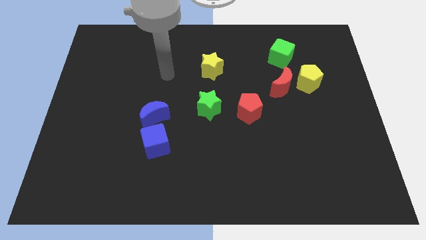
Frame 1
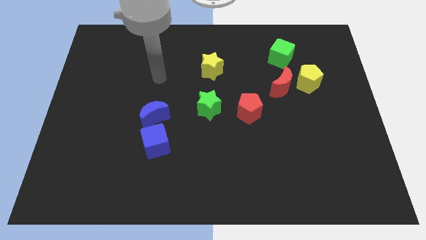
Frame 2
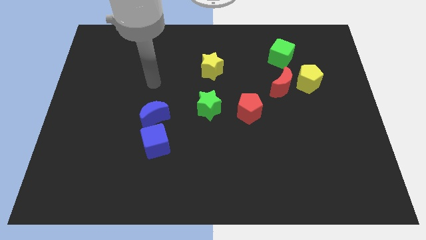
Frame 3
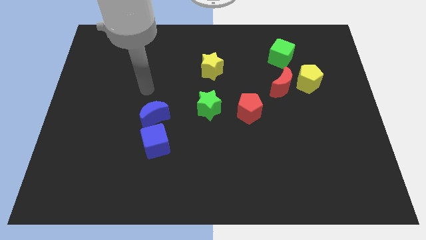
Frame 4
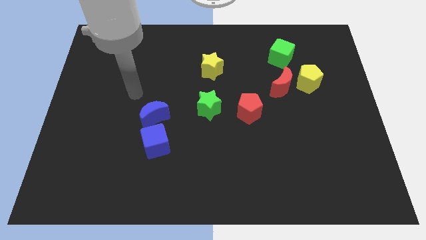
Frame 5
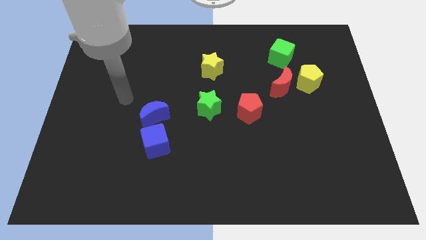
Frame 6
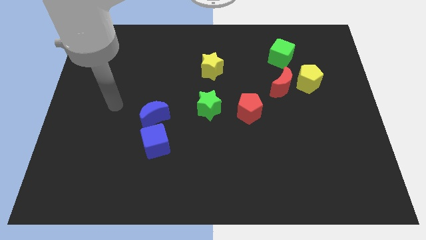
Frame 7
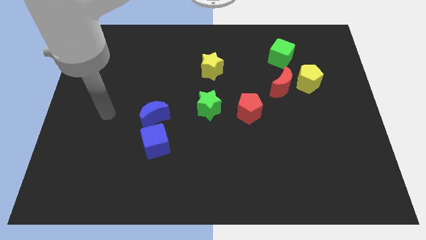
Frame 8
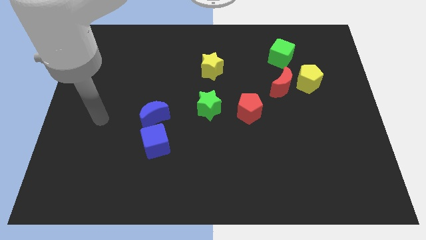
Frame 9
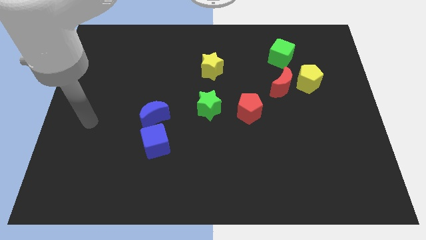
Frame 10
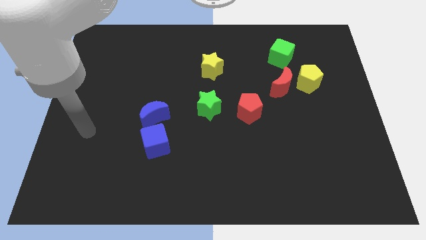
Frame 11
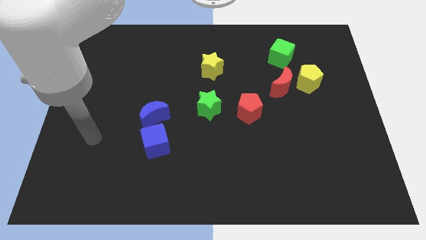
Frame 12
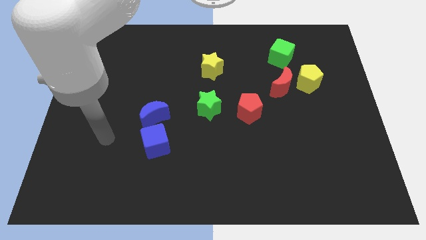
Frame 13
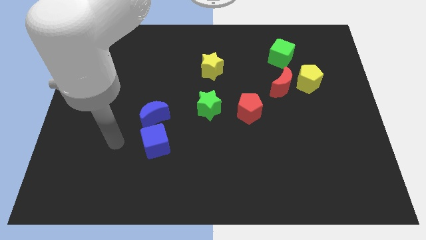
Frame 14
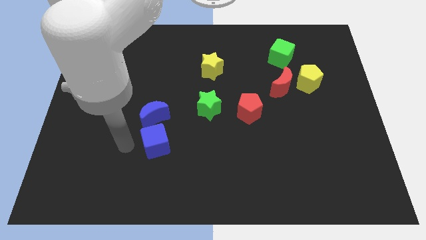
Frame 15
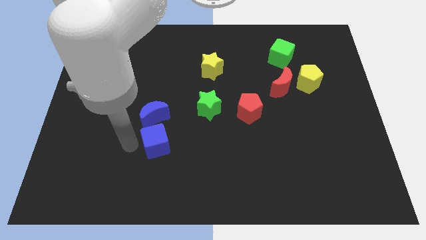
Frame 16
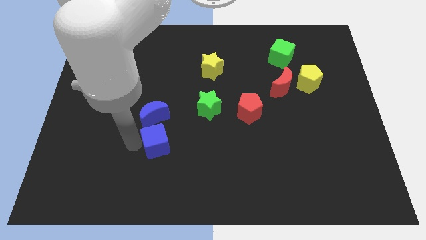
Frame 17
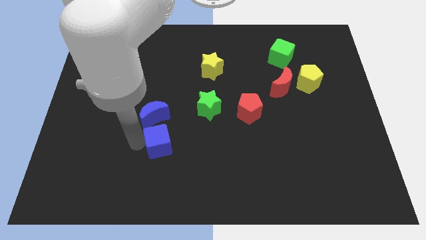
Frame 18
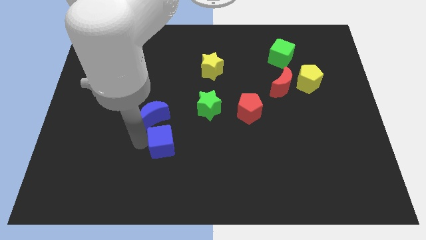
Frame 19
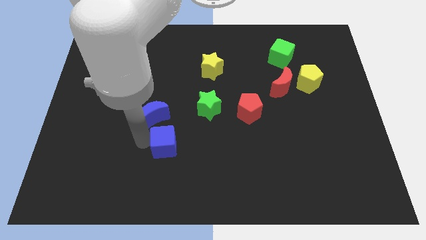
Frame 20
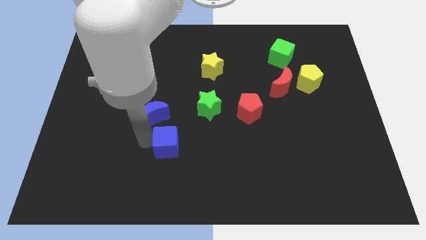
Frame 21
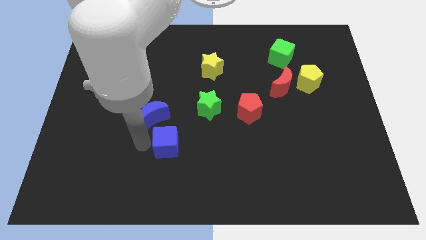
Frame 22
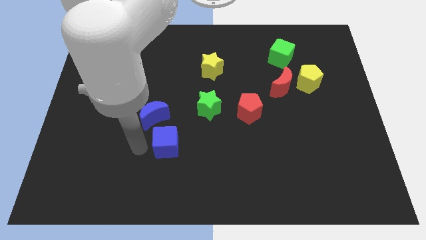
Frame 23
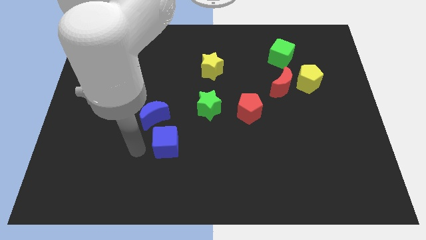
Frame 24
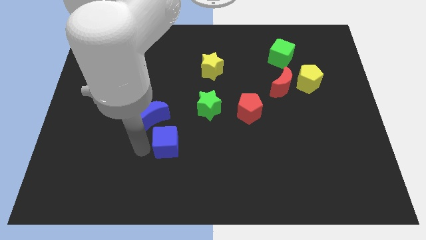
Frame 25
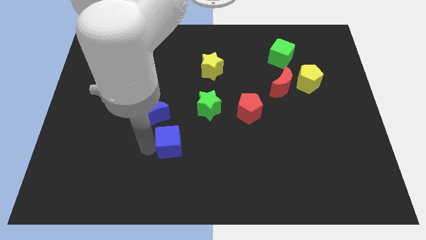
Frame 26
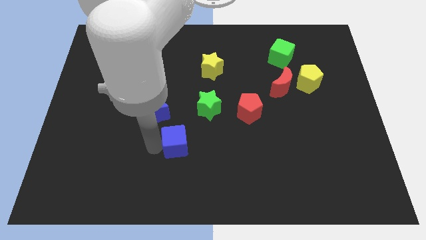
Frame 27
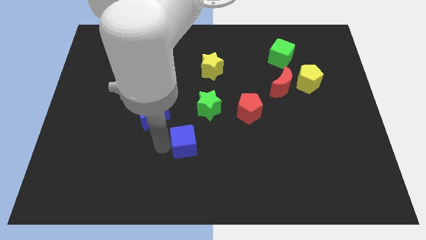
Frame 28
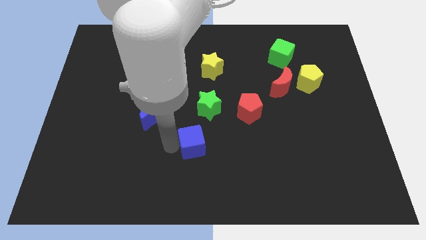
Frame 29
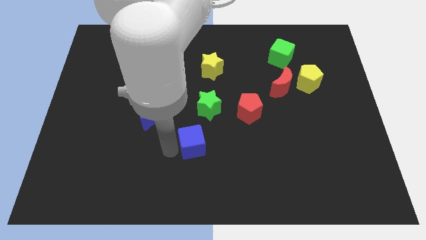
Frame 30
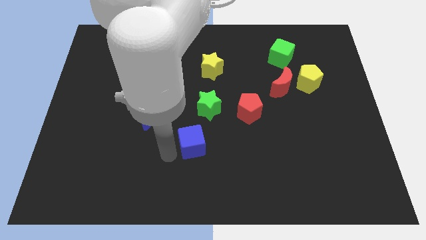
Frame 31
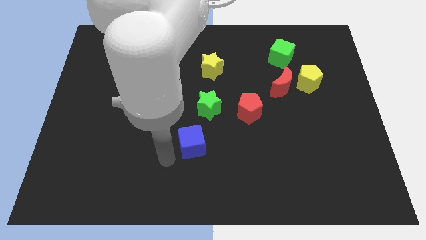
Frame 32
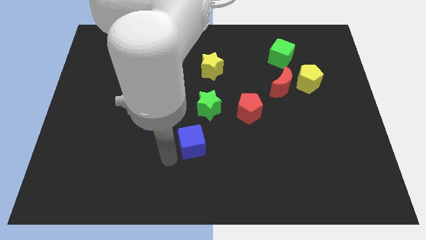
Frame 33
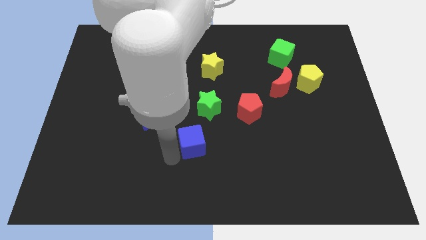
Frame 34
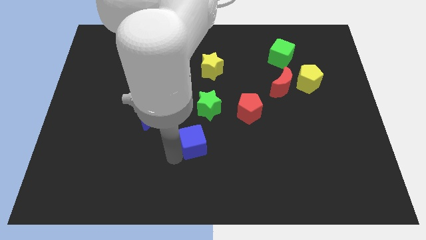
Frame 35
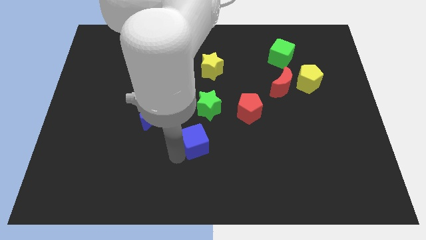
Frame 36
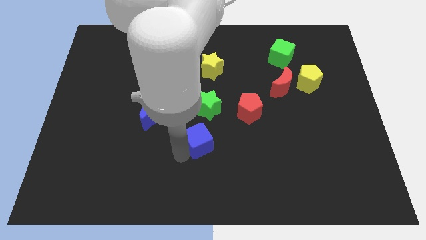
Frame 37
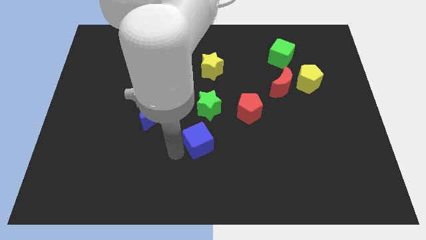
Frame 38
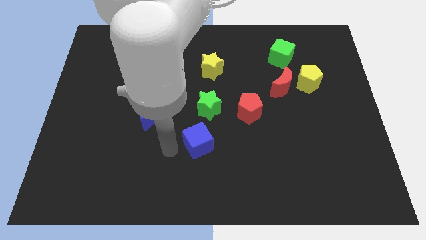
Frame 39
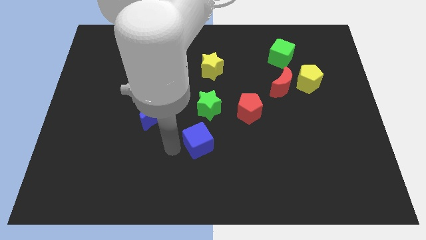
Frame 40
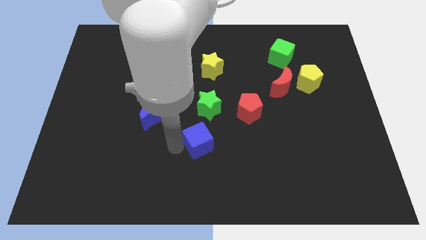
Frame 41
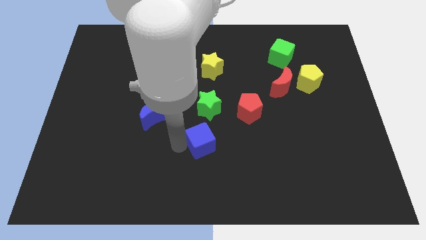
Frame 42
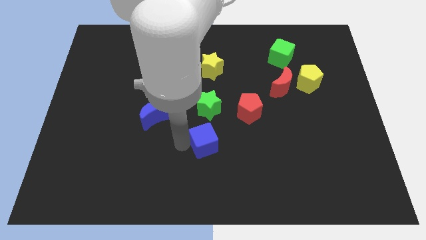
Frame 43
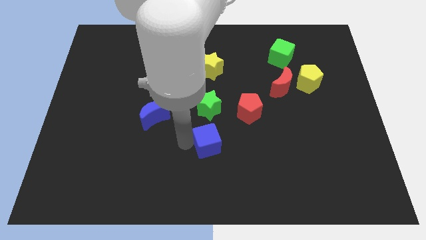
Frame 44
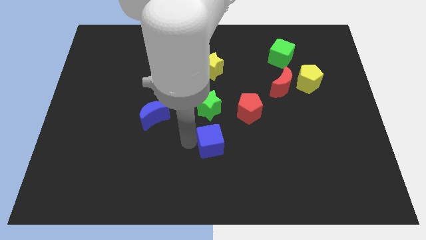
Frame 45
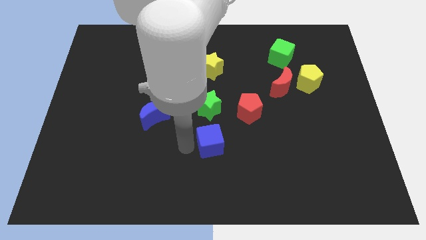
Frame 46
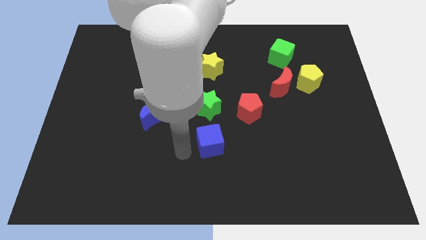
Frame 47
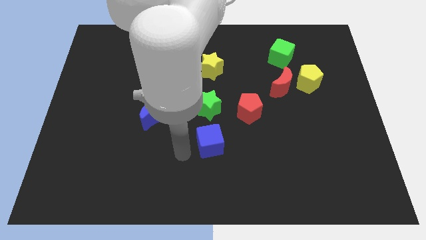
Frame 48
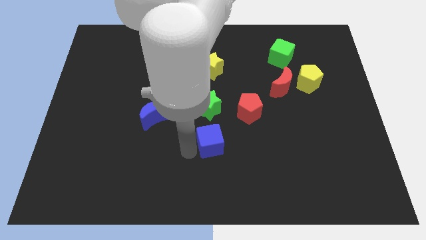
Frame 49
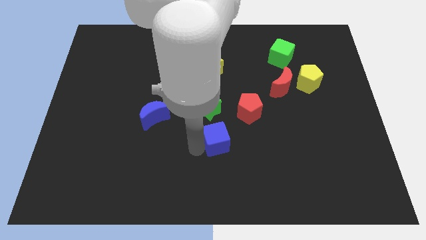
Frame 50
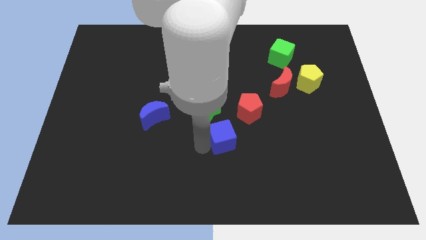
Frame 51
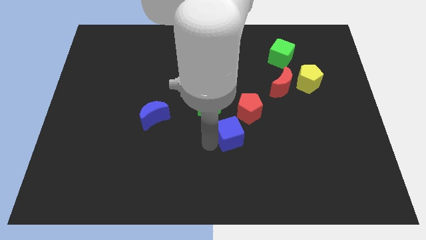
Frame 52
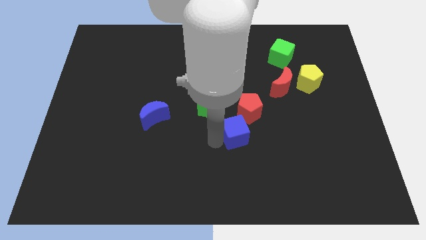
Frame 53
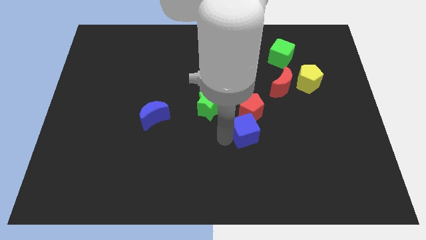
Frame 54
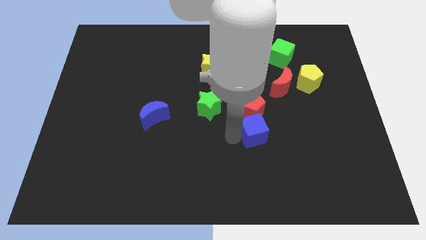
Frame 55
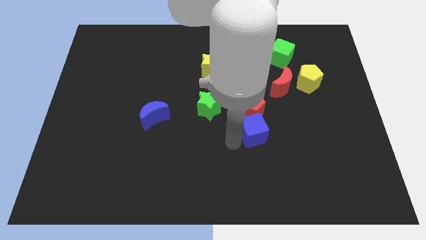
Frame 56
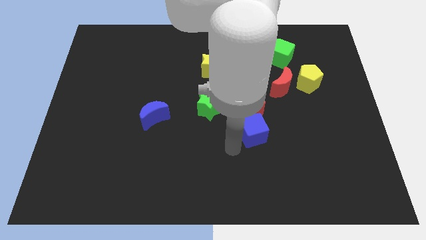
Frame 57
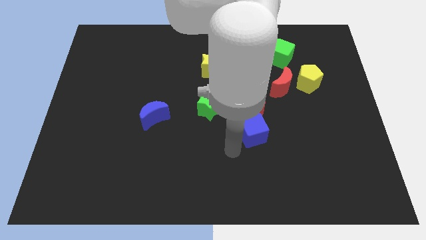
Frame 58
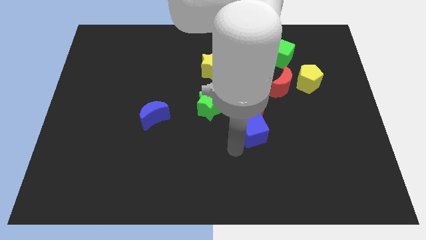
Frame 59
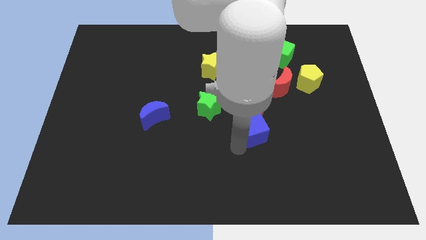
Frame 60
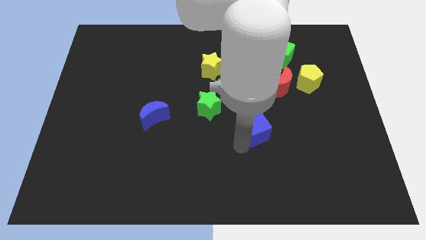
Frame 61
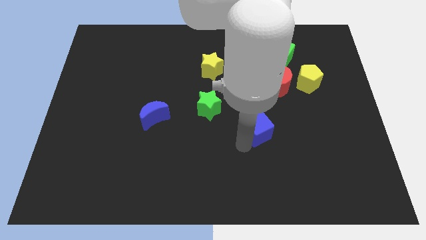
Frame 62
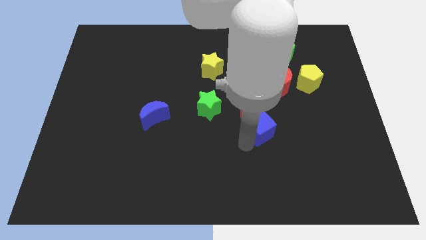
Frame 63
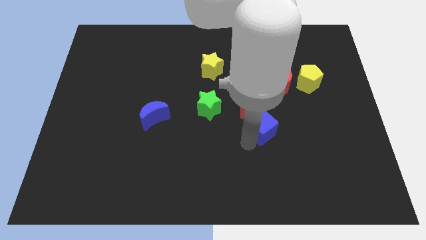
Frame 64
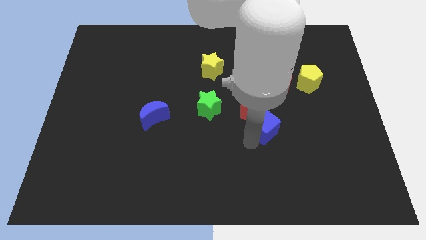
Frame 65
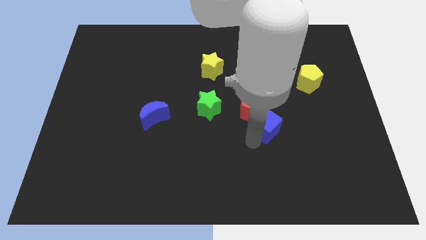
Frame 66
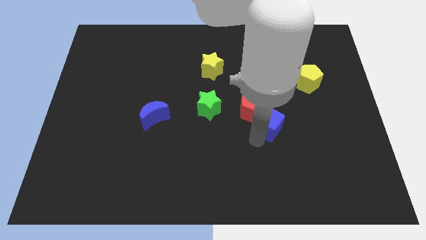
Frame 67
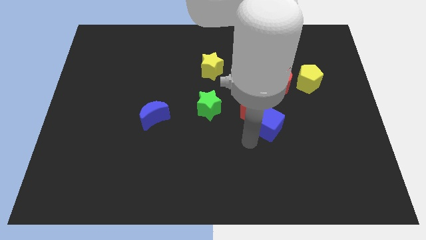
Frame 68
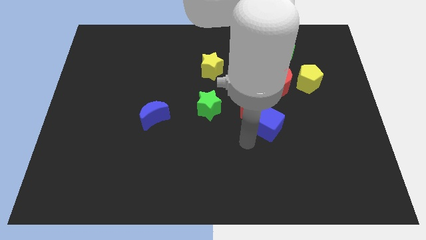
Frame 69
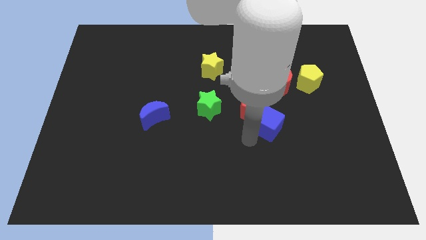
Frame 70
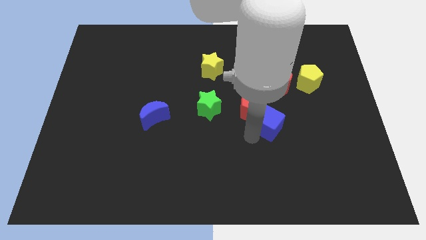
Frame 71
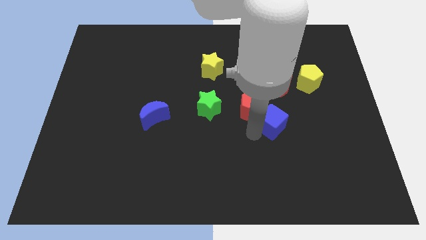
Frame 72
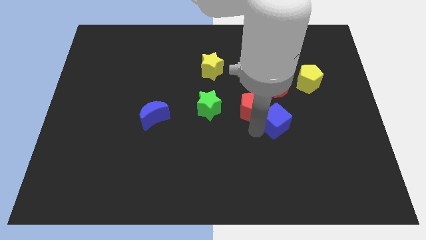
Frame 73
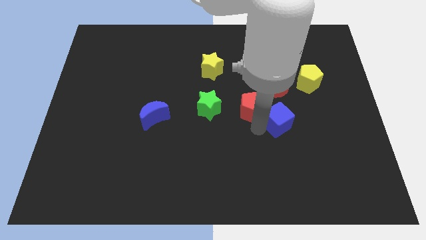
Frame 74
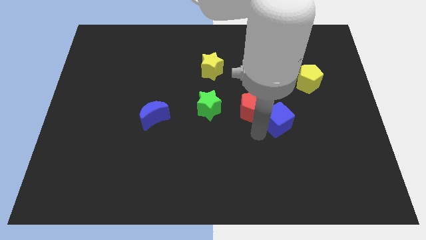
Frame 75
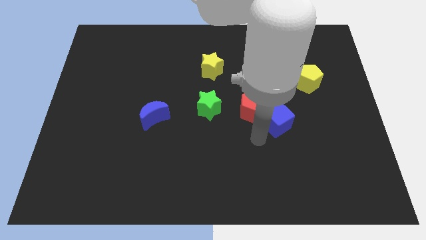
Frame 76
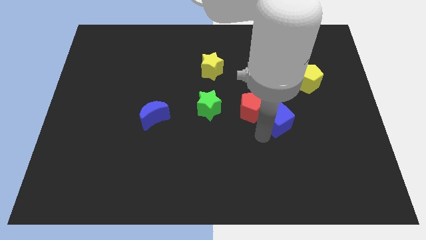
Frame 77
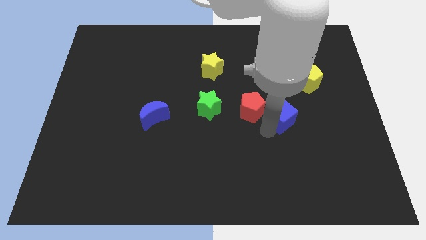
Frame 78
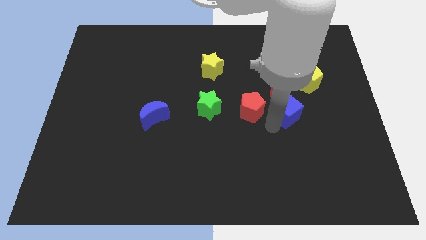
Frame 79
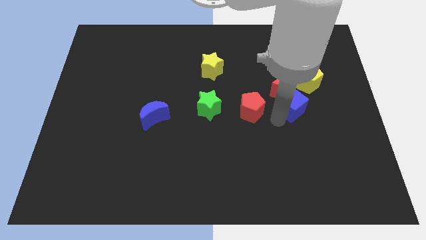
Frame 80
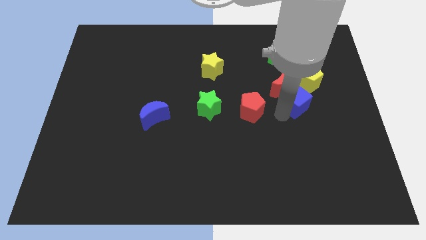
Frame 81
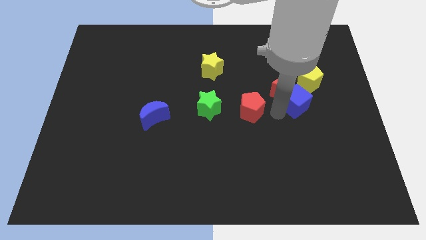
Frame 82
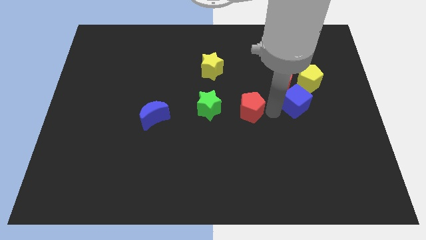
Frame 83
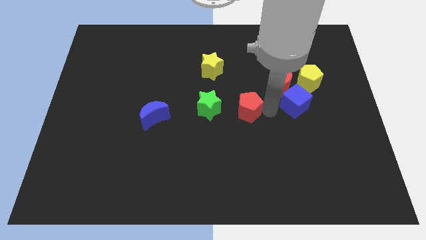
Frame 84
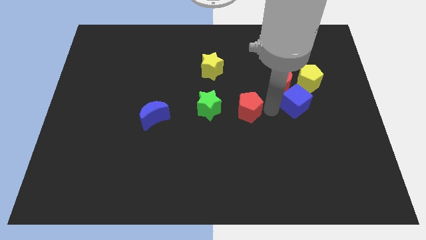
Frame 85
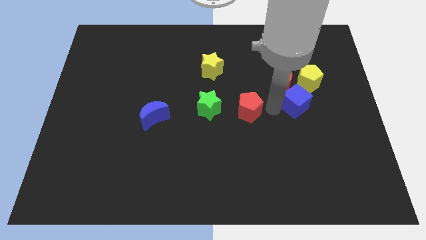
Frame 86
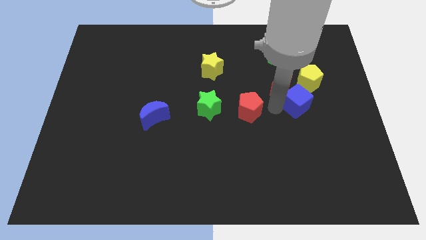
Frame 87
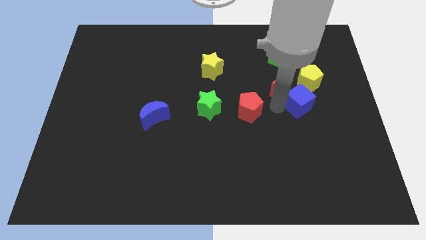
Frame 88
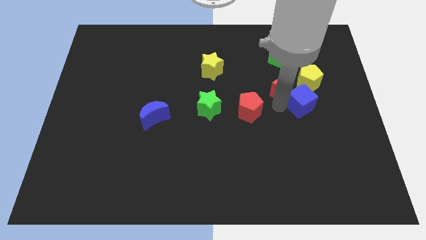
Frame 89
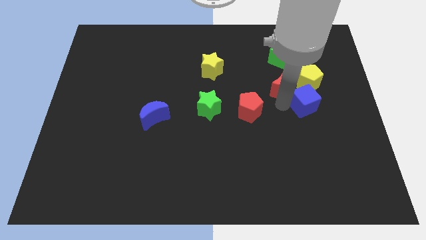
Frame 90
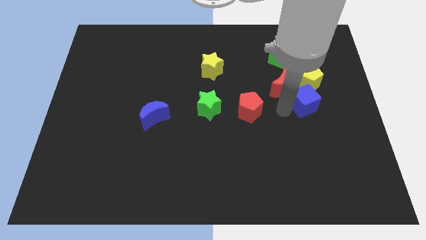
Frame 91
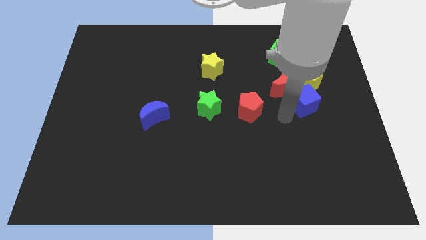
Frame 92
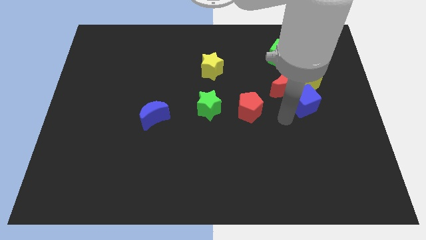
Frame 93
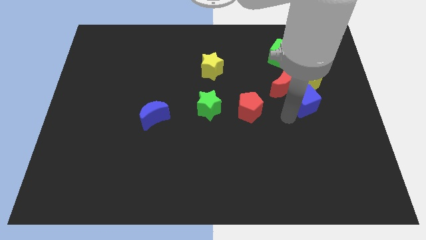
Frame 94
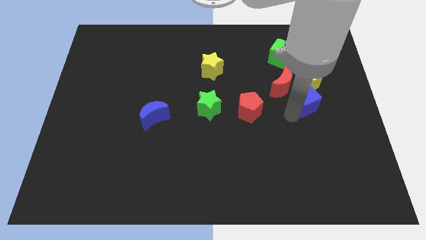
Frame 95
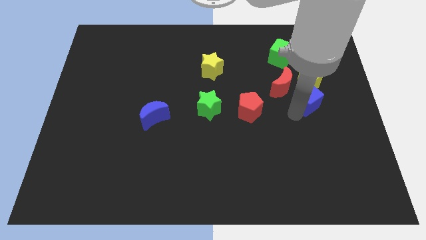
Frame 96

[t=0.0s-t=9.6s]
push the blue cube just right of the red moon
